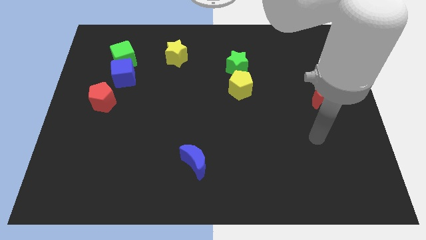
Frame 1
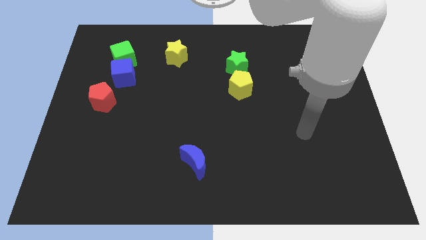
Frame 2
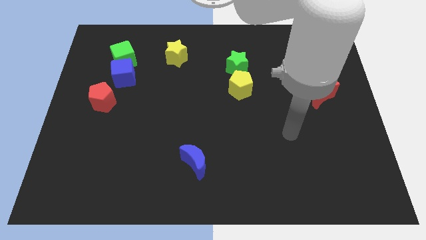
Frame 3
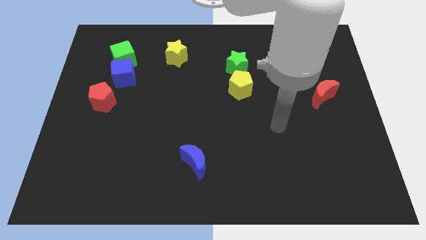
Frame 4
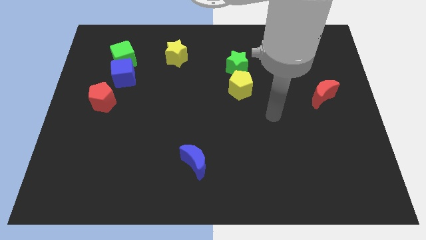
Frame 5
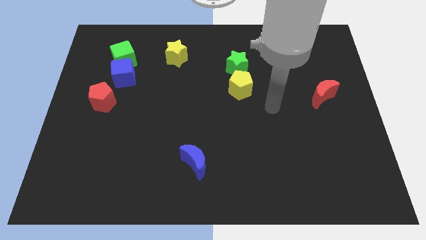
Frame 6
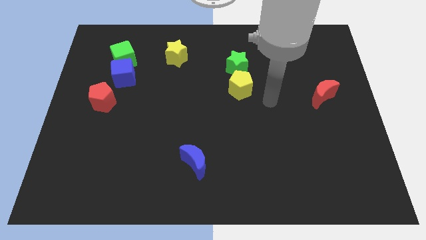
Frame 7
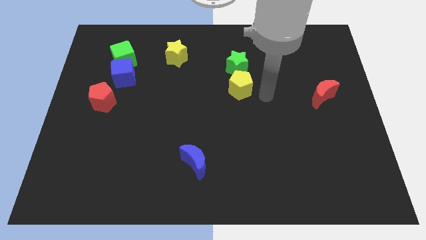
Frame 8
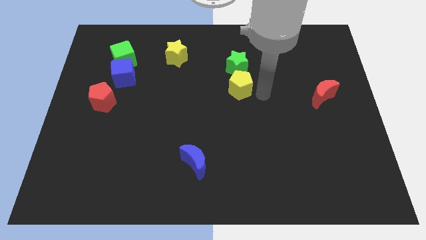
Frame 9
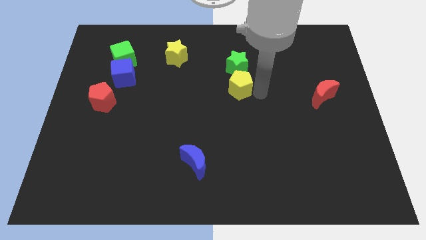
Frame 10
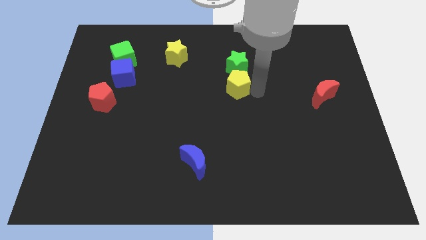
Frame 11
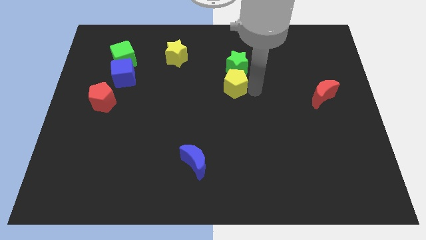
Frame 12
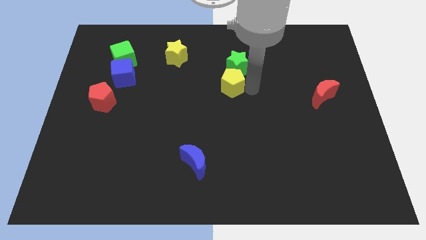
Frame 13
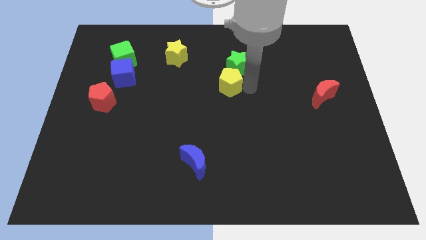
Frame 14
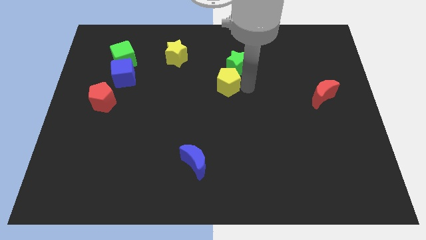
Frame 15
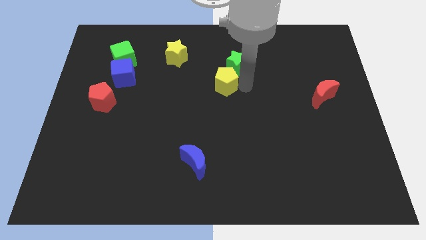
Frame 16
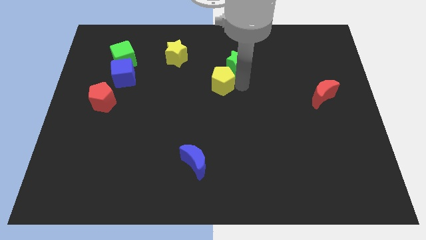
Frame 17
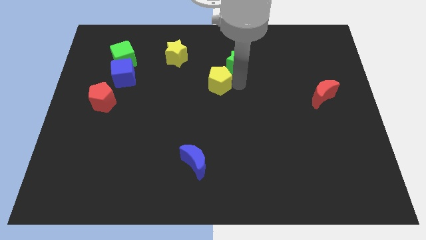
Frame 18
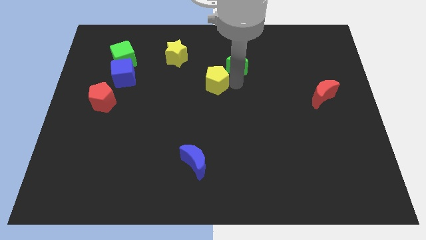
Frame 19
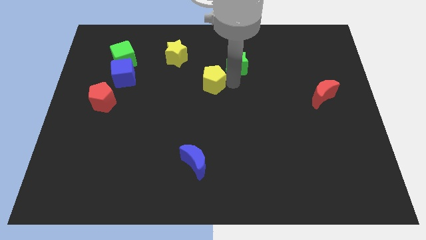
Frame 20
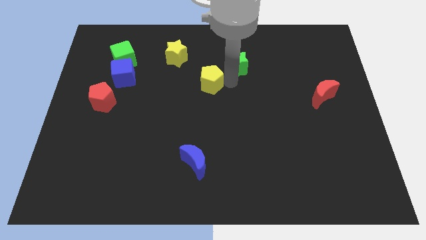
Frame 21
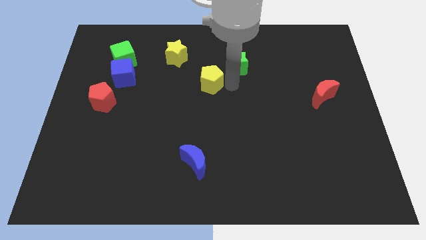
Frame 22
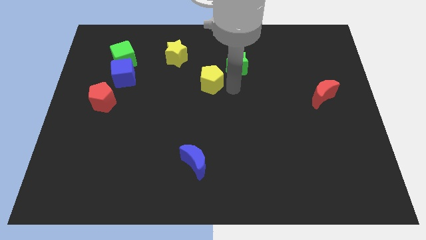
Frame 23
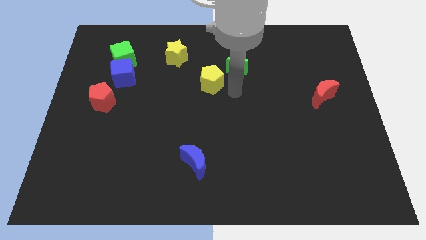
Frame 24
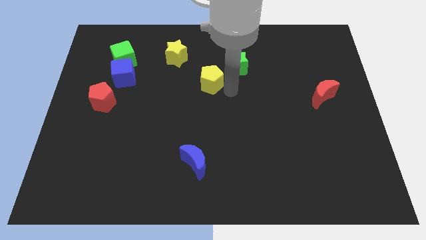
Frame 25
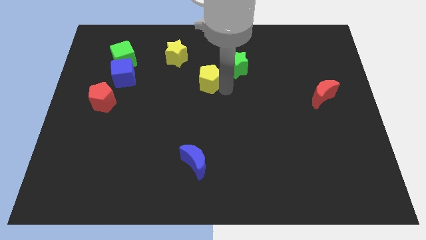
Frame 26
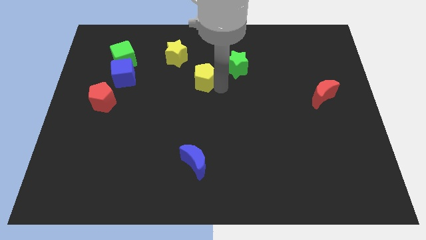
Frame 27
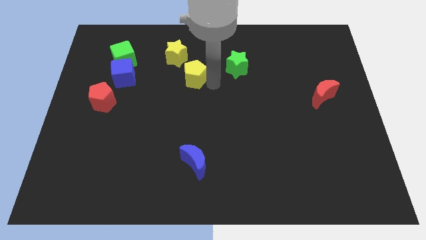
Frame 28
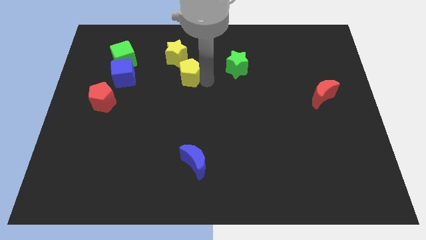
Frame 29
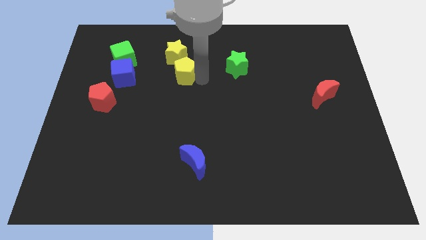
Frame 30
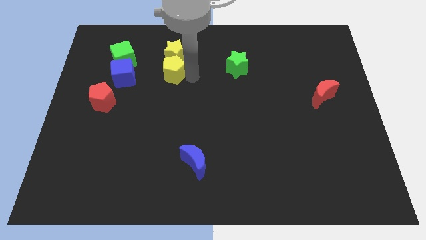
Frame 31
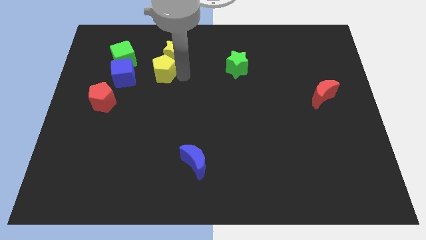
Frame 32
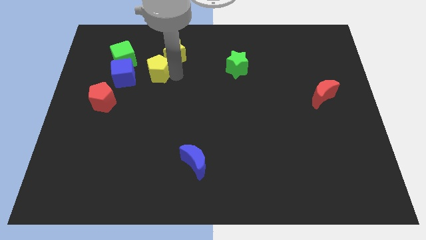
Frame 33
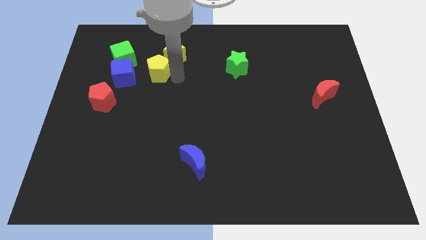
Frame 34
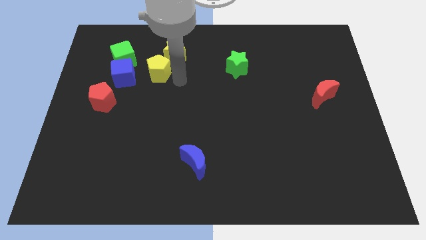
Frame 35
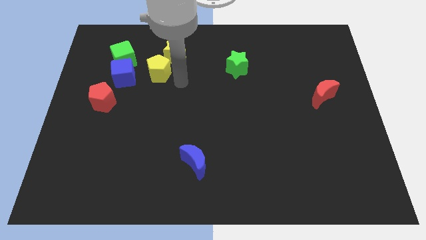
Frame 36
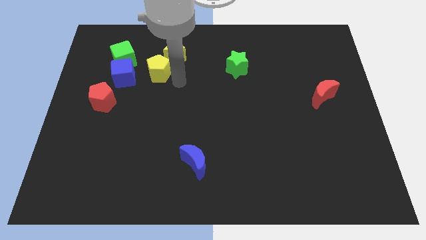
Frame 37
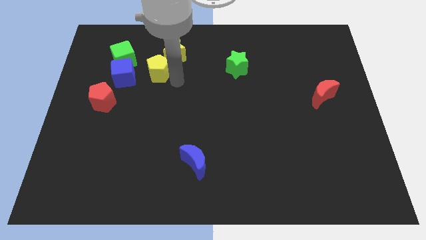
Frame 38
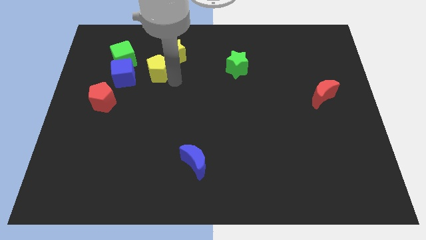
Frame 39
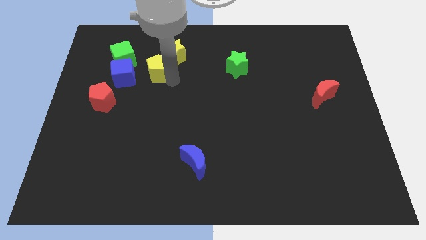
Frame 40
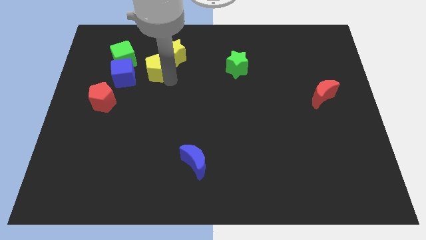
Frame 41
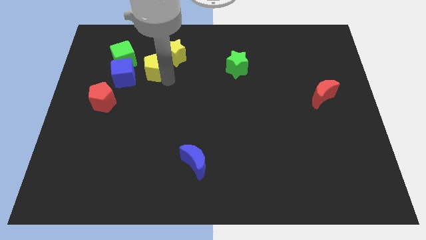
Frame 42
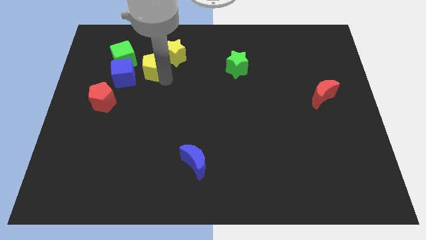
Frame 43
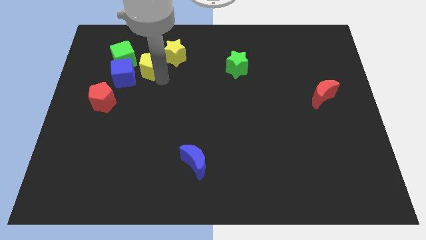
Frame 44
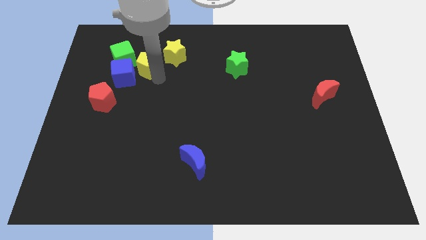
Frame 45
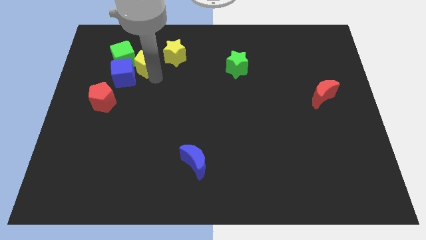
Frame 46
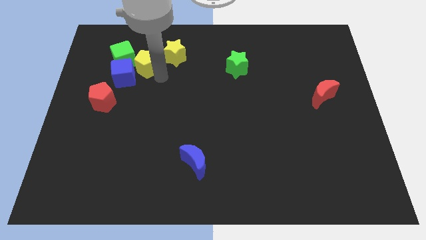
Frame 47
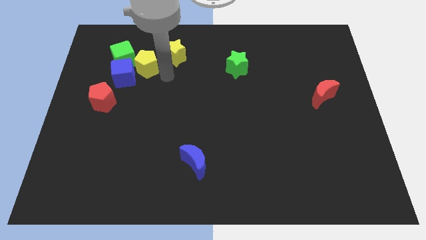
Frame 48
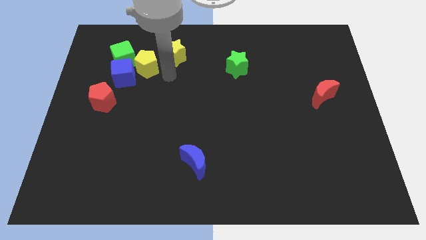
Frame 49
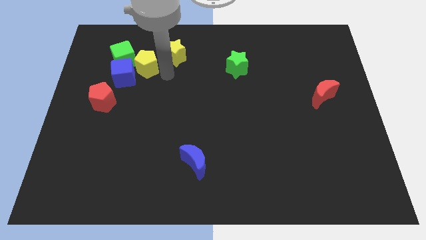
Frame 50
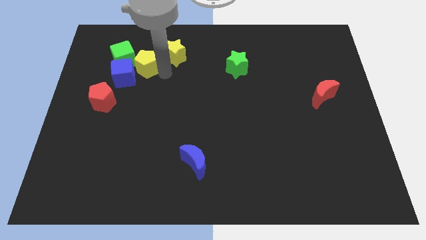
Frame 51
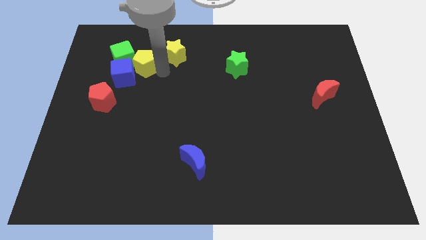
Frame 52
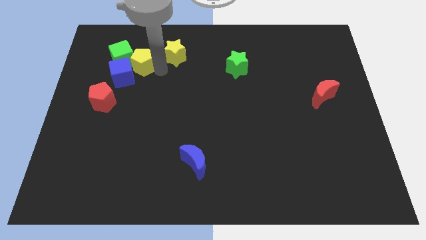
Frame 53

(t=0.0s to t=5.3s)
slide the yellow pentagon next to the green cube

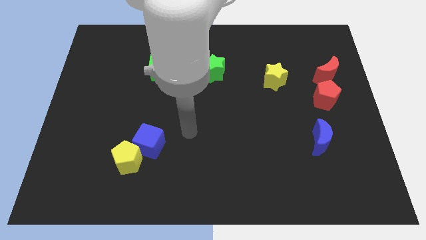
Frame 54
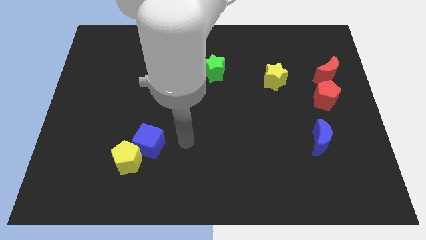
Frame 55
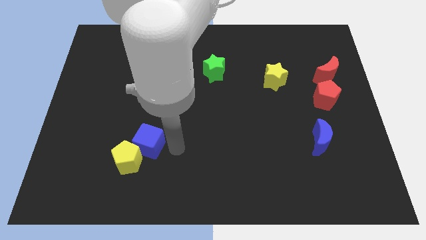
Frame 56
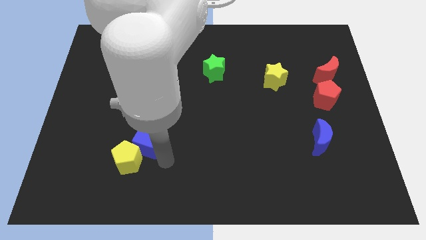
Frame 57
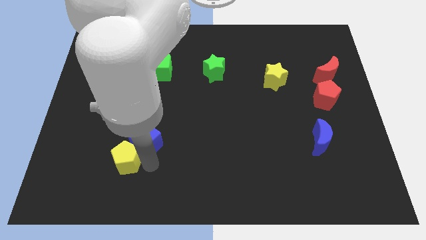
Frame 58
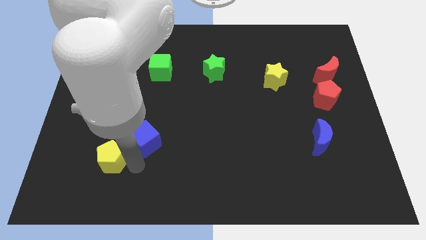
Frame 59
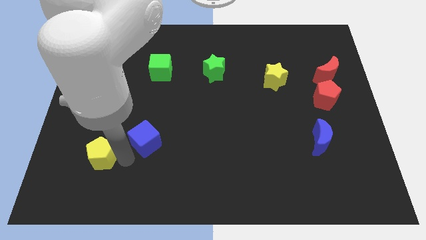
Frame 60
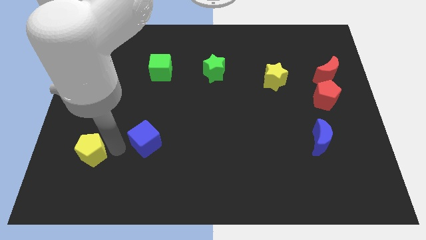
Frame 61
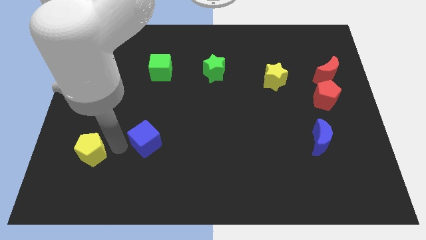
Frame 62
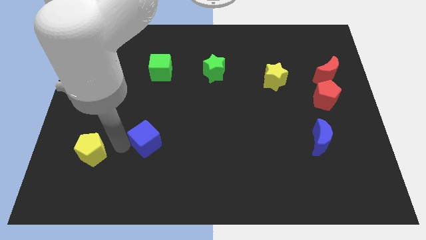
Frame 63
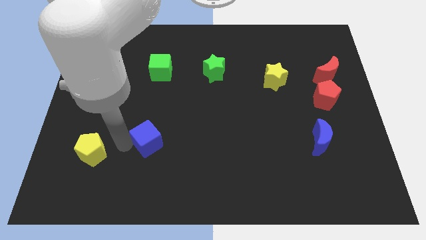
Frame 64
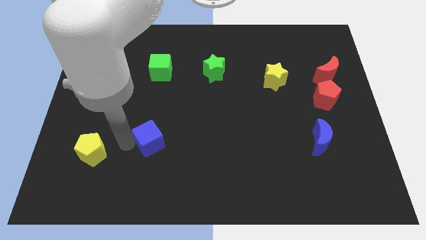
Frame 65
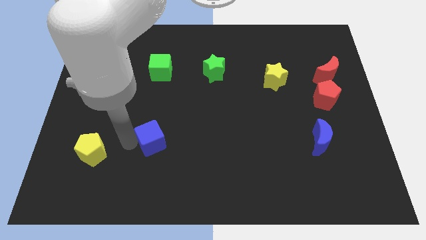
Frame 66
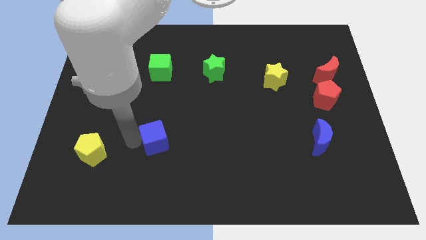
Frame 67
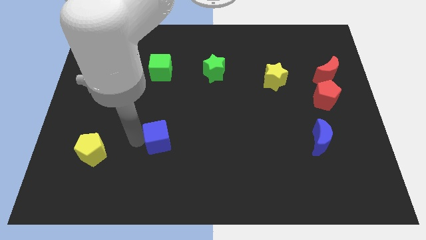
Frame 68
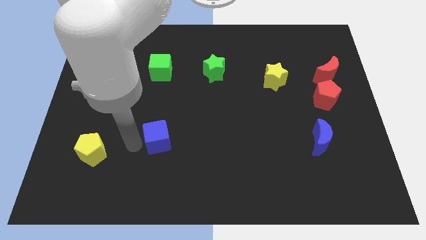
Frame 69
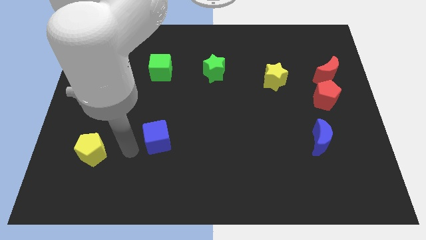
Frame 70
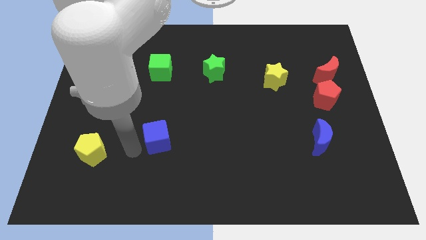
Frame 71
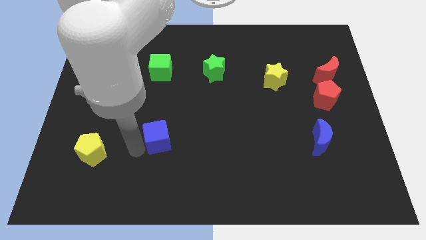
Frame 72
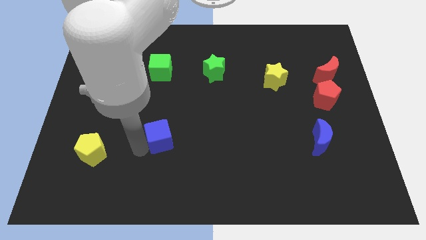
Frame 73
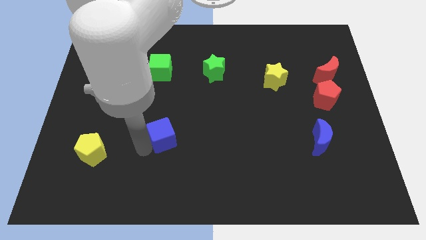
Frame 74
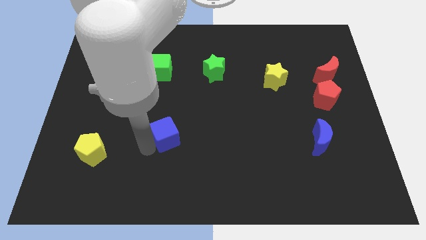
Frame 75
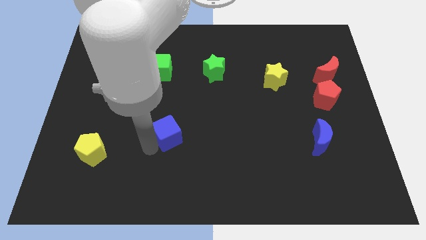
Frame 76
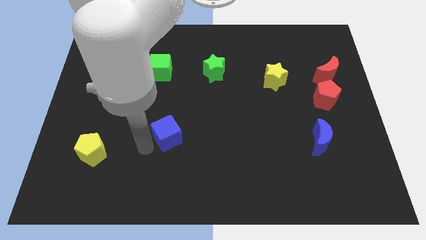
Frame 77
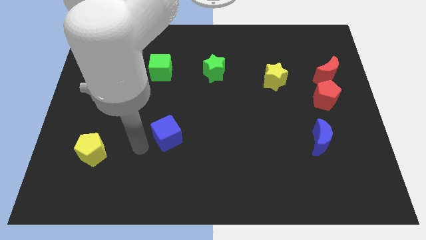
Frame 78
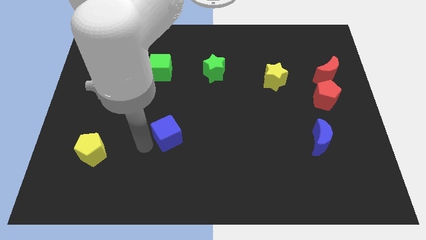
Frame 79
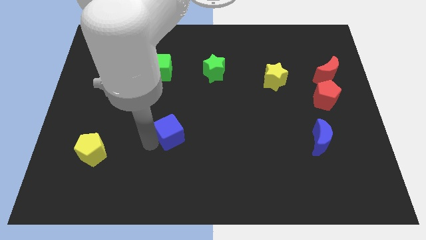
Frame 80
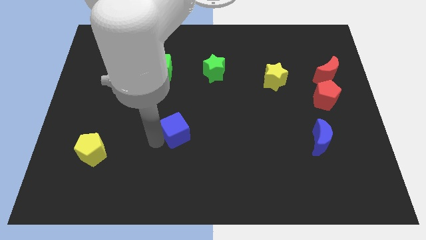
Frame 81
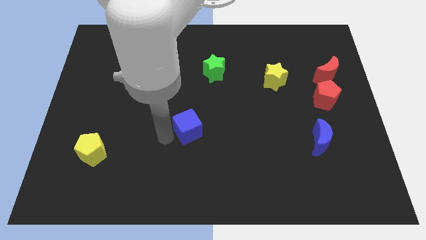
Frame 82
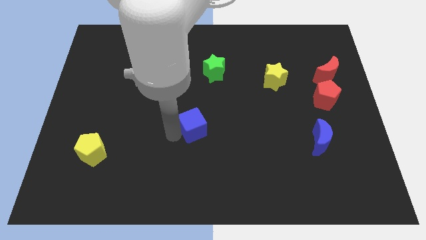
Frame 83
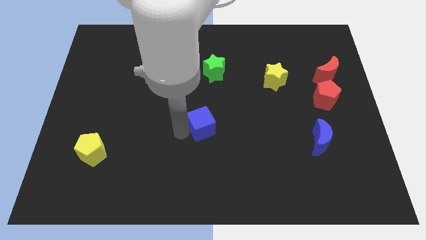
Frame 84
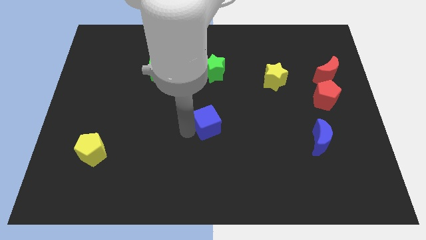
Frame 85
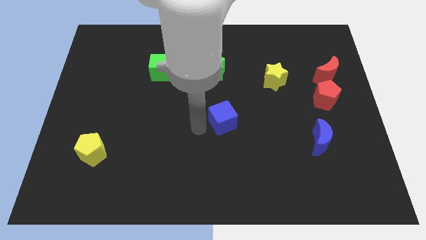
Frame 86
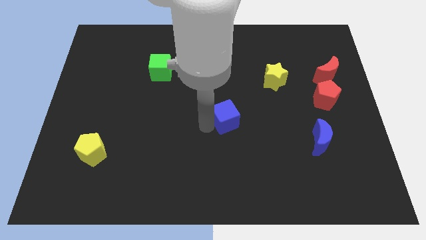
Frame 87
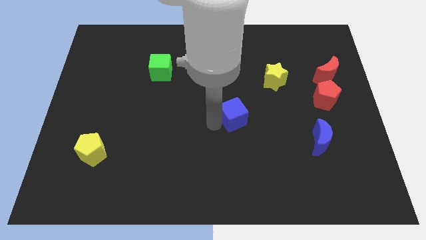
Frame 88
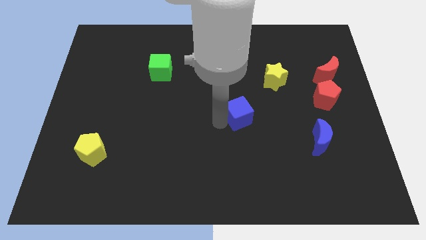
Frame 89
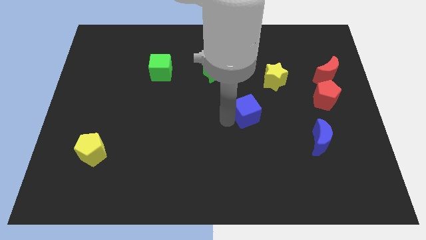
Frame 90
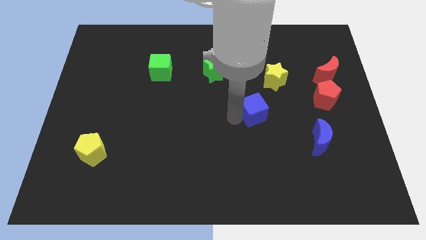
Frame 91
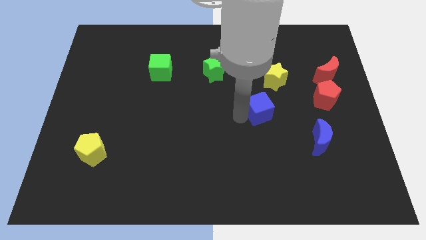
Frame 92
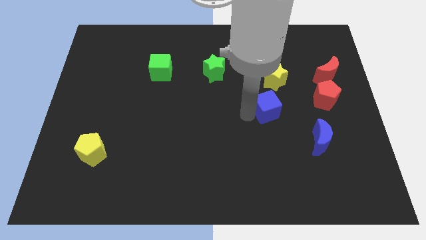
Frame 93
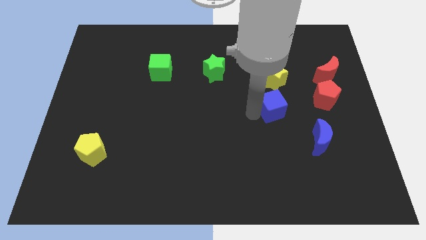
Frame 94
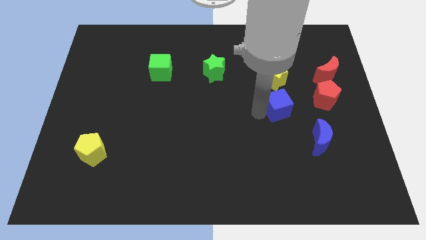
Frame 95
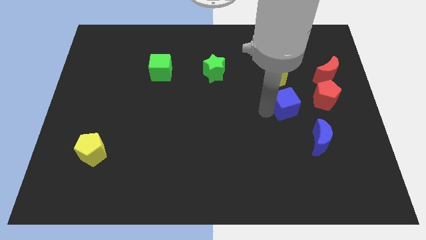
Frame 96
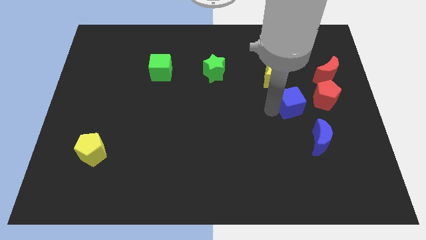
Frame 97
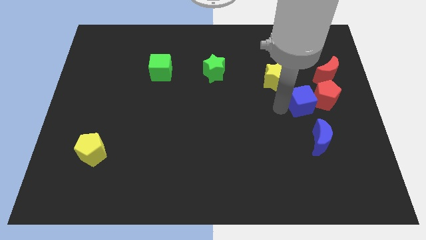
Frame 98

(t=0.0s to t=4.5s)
put the blue cube towards the red pentagon
